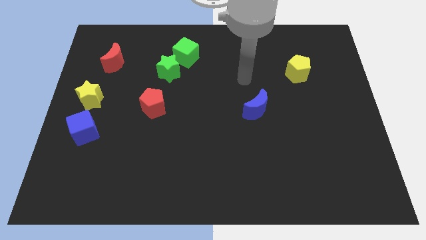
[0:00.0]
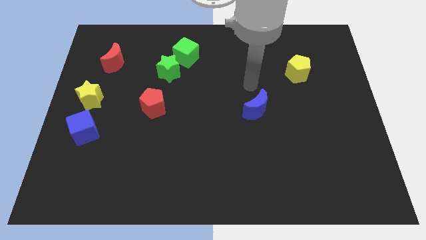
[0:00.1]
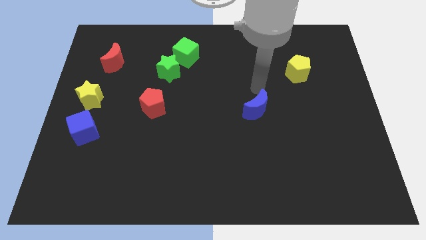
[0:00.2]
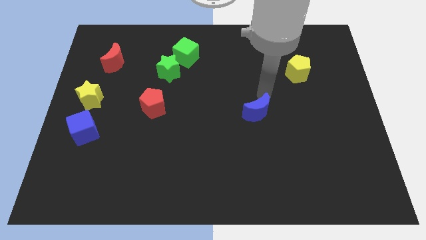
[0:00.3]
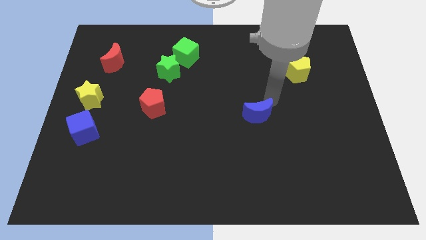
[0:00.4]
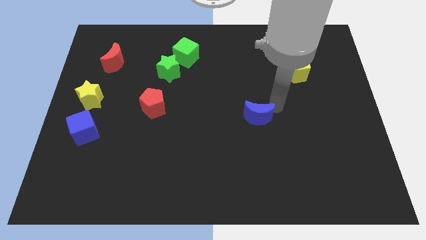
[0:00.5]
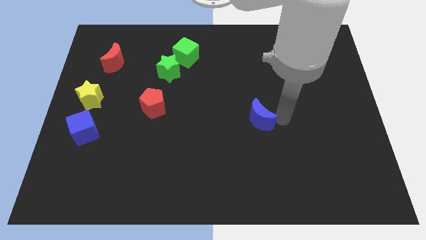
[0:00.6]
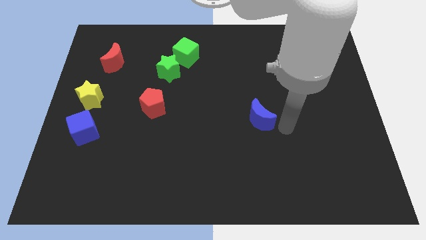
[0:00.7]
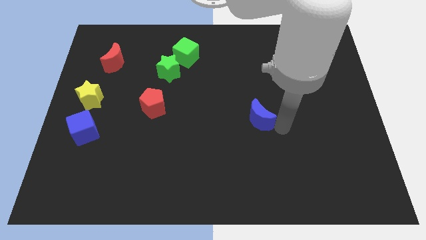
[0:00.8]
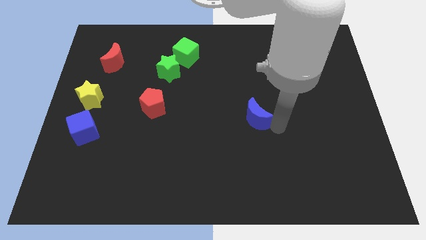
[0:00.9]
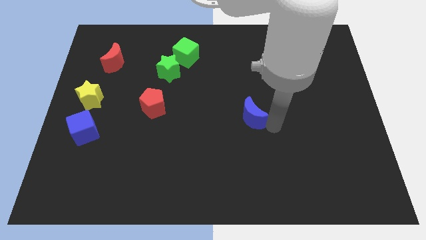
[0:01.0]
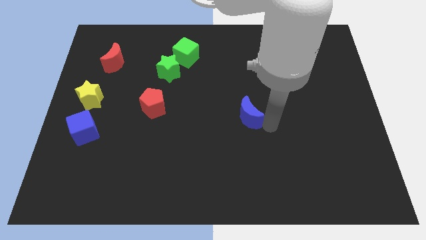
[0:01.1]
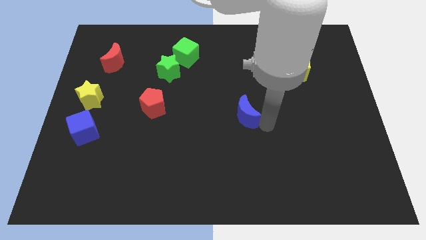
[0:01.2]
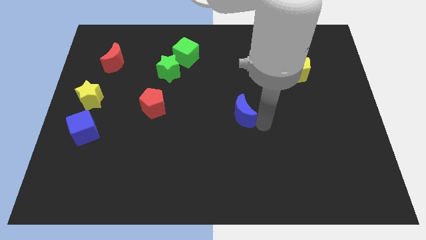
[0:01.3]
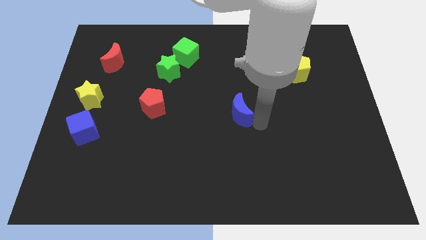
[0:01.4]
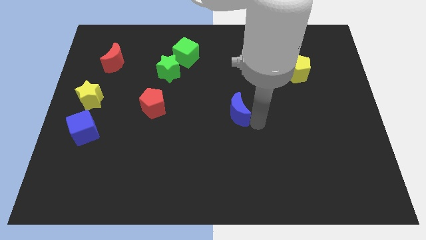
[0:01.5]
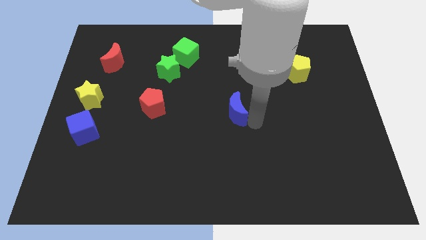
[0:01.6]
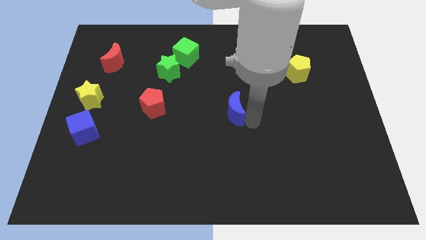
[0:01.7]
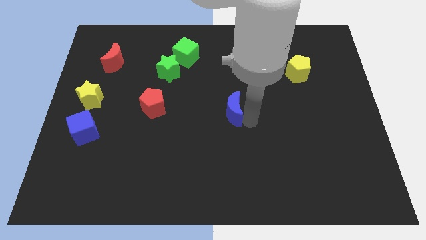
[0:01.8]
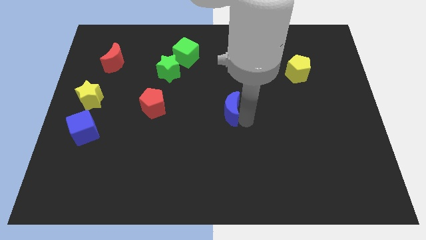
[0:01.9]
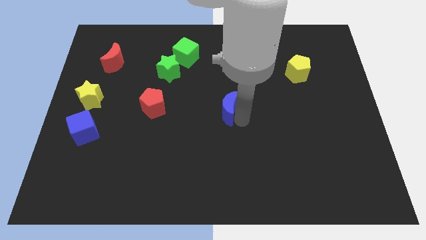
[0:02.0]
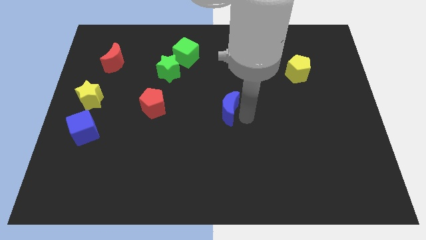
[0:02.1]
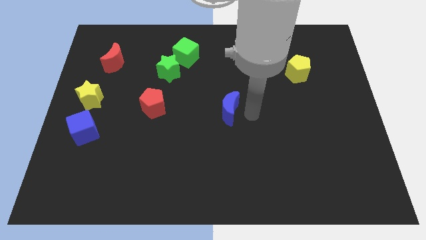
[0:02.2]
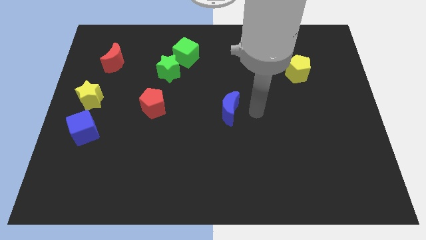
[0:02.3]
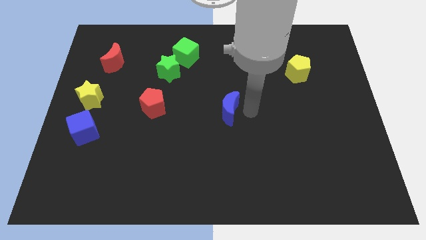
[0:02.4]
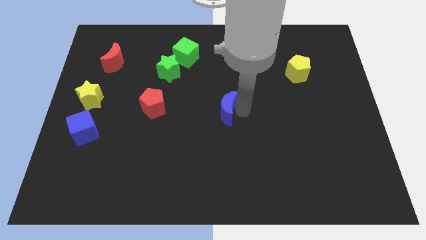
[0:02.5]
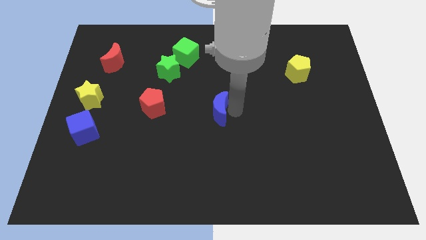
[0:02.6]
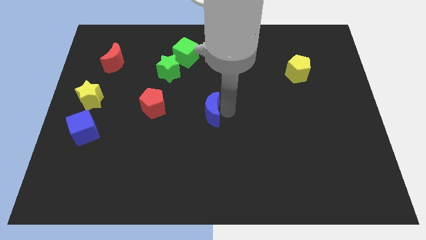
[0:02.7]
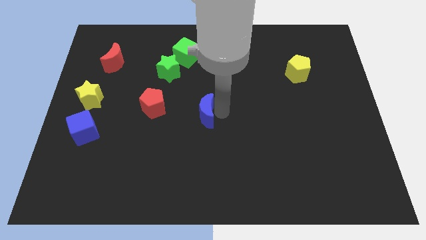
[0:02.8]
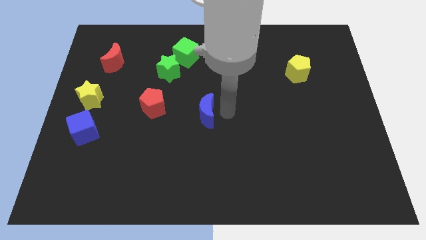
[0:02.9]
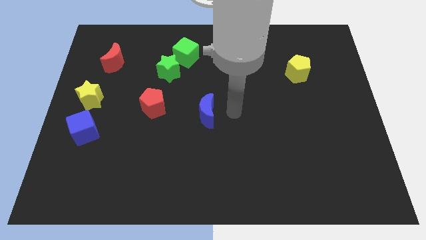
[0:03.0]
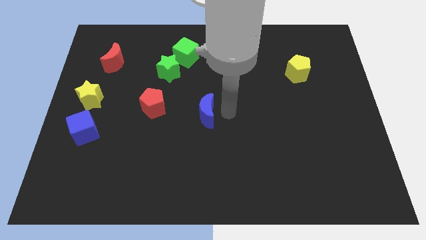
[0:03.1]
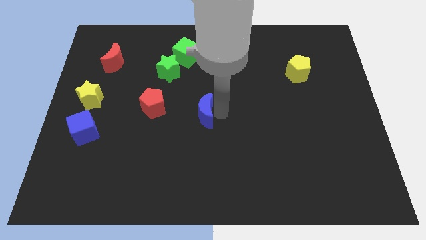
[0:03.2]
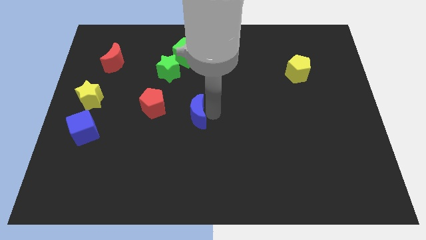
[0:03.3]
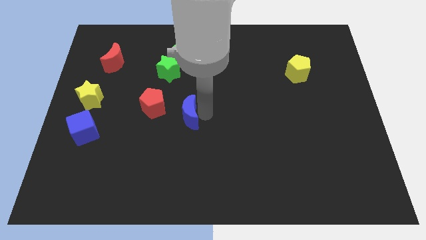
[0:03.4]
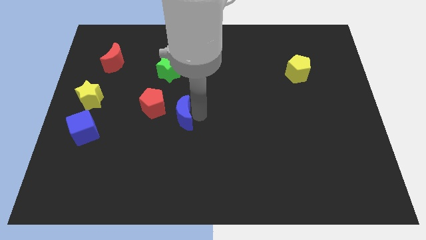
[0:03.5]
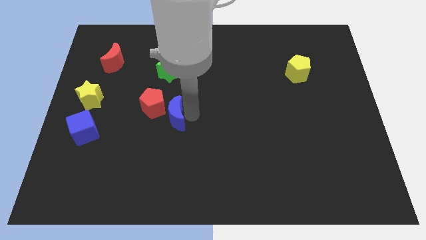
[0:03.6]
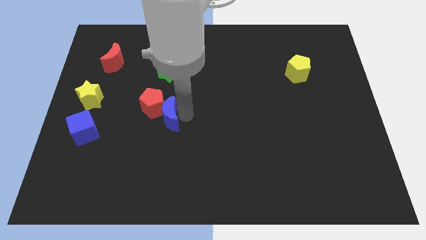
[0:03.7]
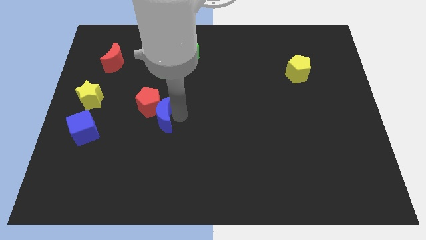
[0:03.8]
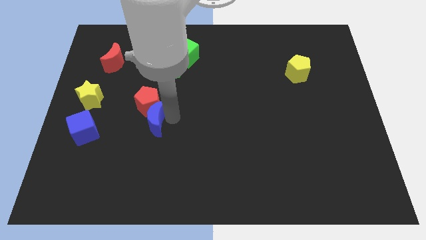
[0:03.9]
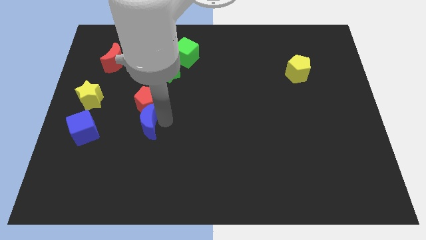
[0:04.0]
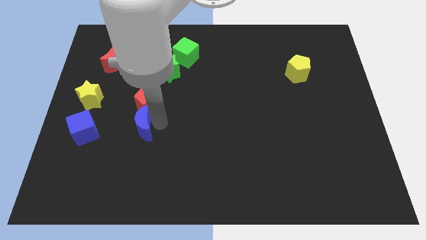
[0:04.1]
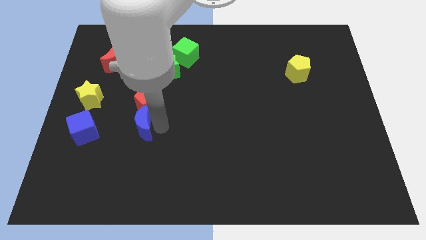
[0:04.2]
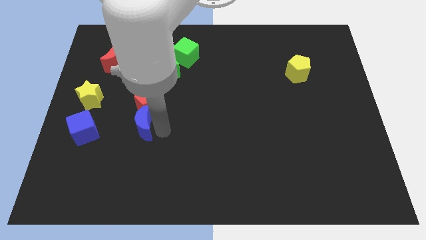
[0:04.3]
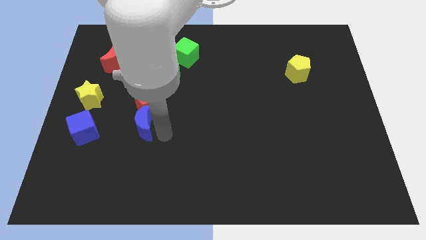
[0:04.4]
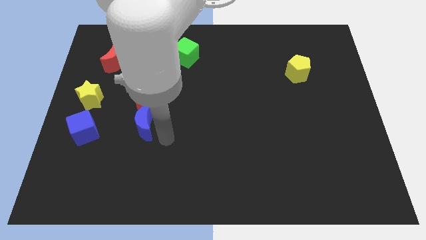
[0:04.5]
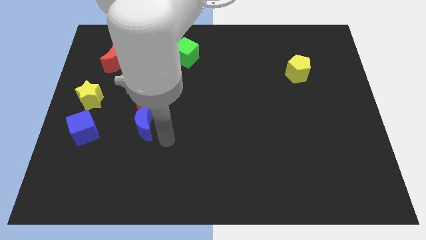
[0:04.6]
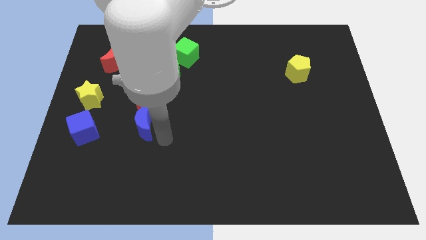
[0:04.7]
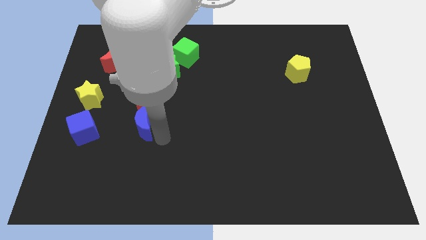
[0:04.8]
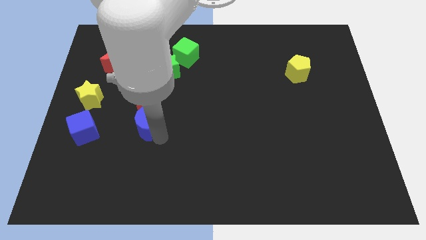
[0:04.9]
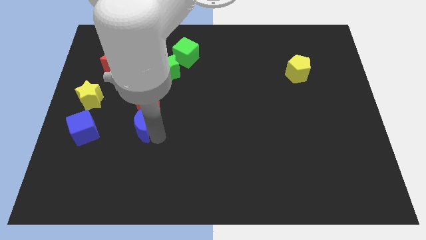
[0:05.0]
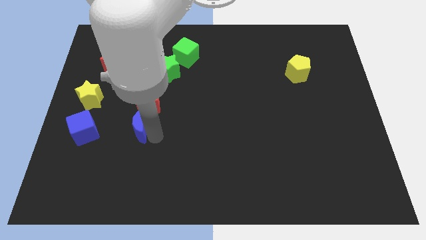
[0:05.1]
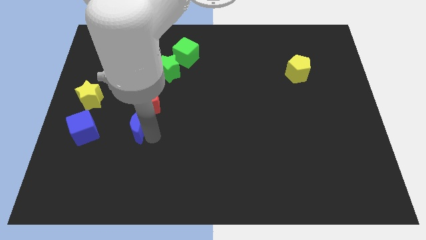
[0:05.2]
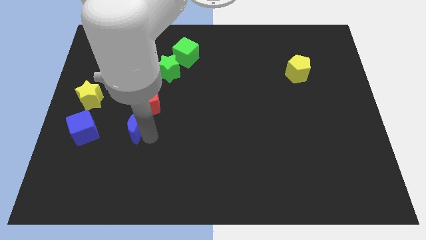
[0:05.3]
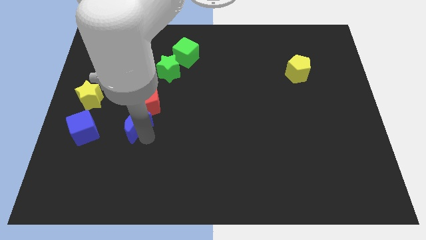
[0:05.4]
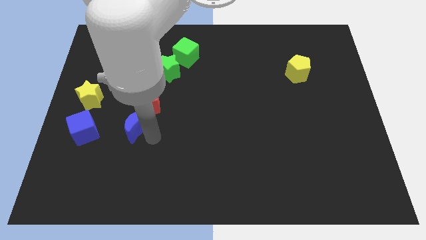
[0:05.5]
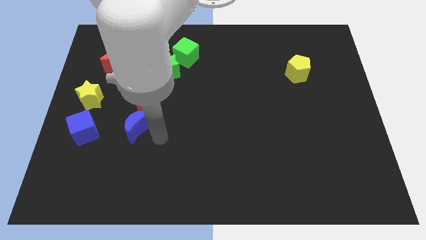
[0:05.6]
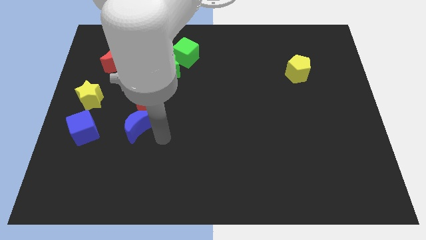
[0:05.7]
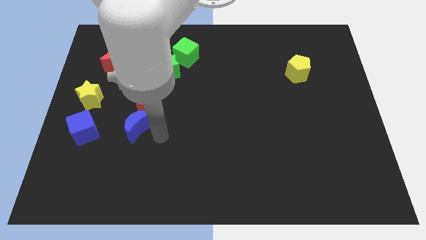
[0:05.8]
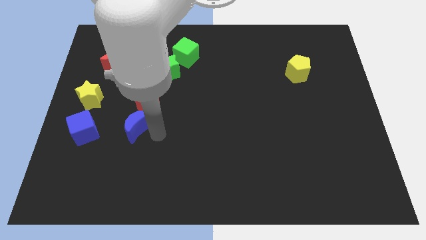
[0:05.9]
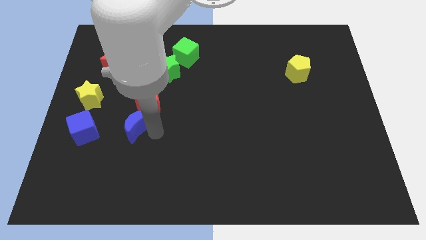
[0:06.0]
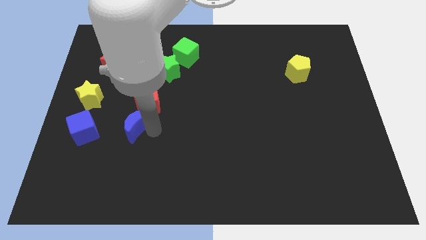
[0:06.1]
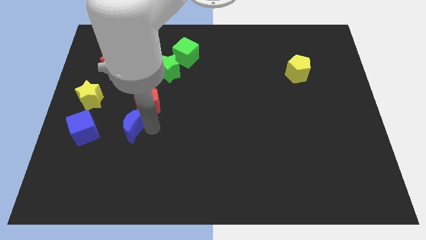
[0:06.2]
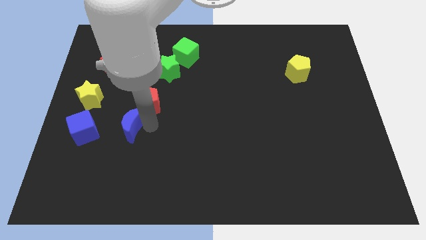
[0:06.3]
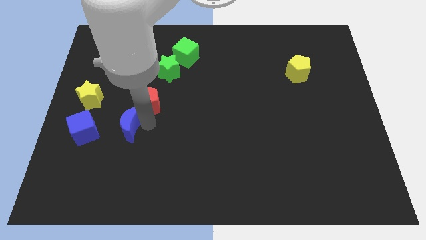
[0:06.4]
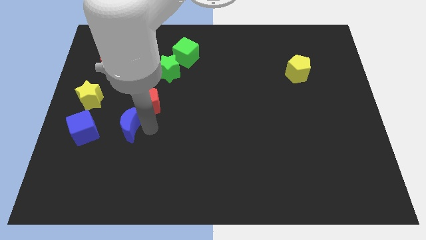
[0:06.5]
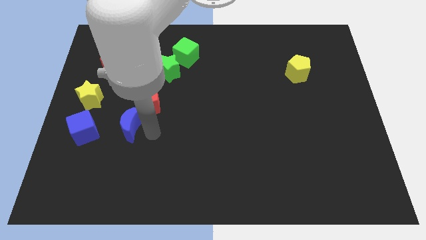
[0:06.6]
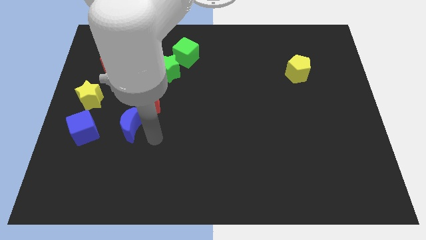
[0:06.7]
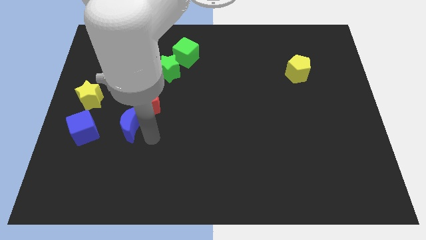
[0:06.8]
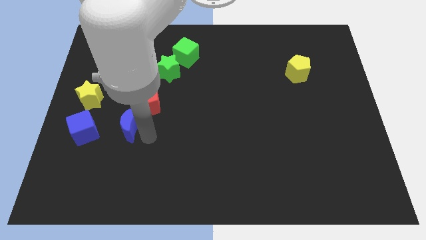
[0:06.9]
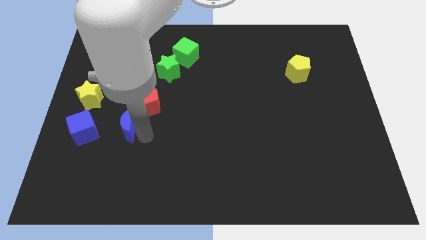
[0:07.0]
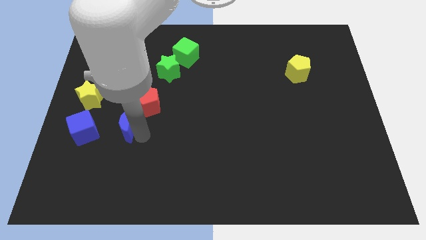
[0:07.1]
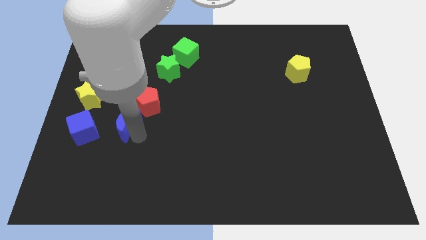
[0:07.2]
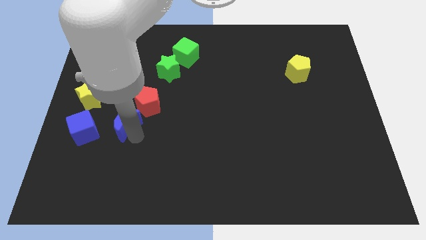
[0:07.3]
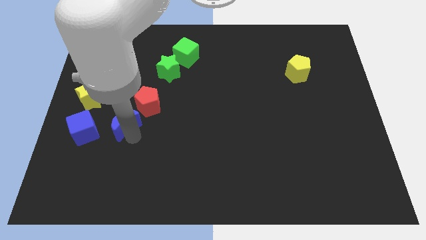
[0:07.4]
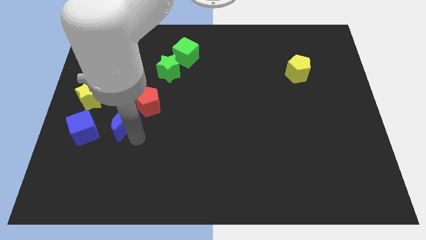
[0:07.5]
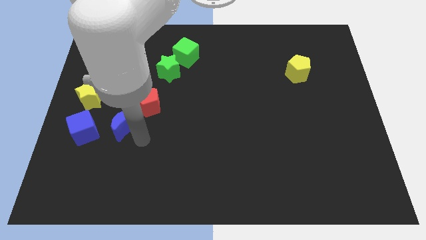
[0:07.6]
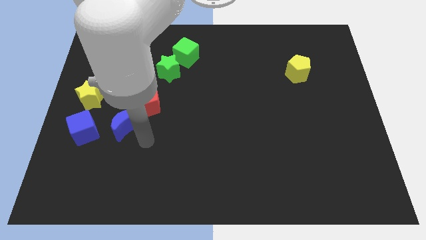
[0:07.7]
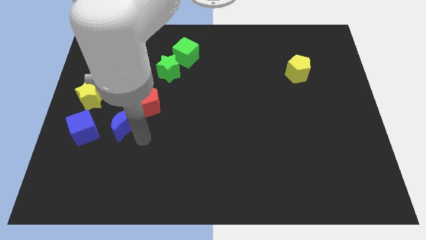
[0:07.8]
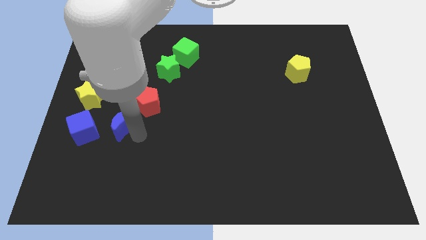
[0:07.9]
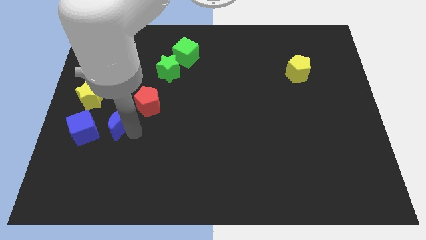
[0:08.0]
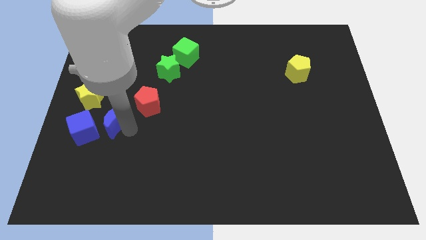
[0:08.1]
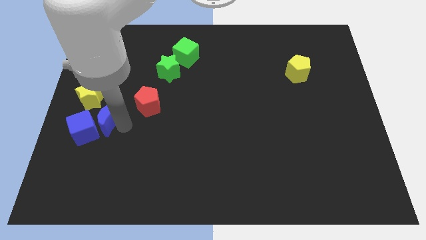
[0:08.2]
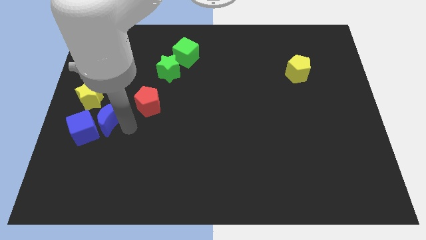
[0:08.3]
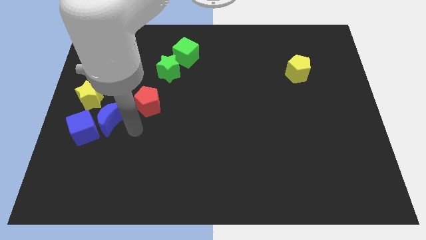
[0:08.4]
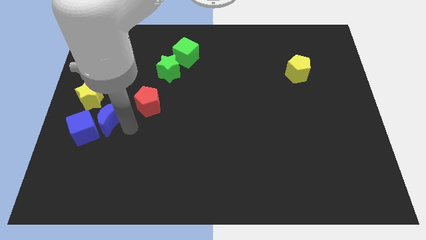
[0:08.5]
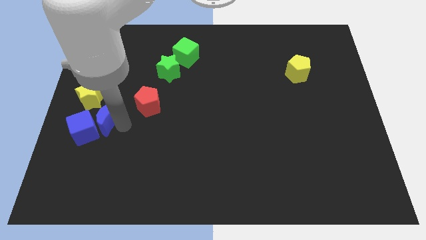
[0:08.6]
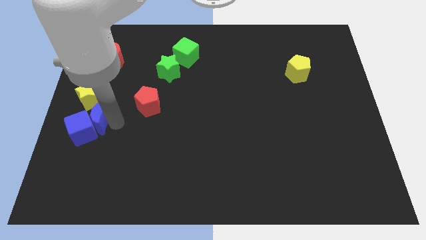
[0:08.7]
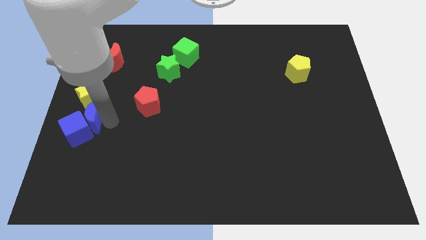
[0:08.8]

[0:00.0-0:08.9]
put the blue moon to the left side of the board
